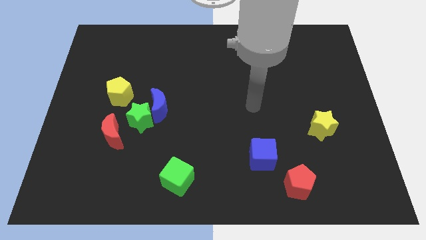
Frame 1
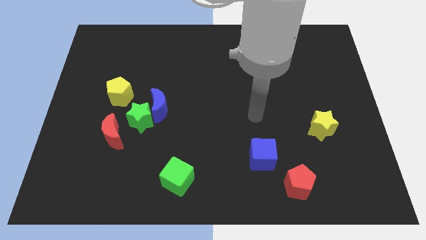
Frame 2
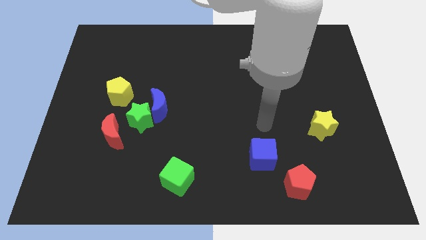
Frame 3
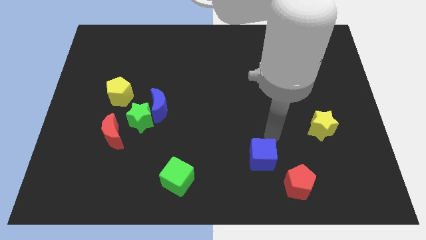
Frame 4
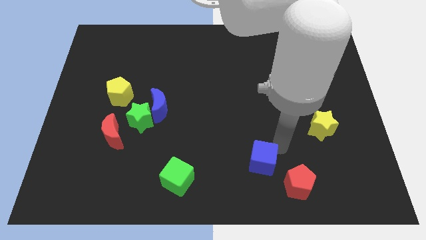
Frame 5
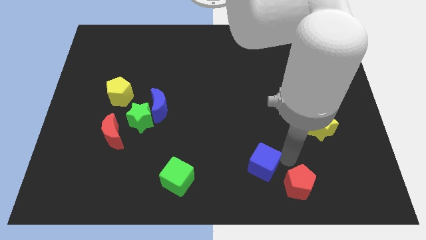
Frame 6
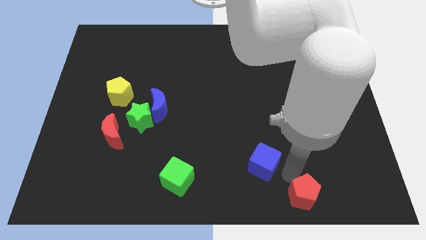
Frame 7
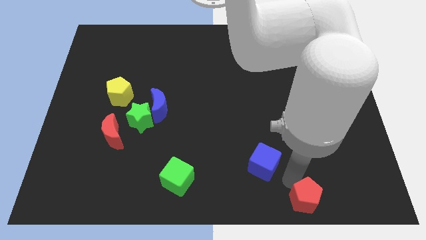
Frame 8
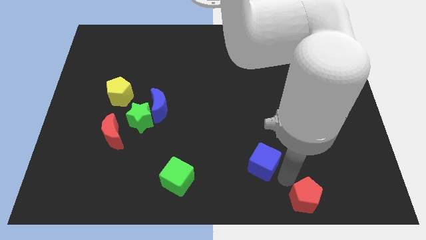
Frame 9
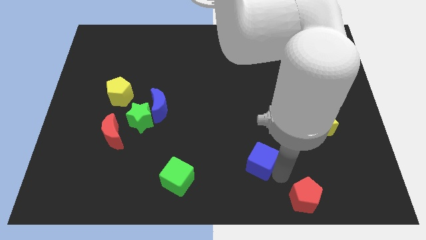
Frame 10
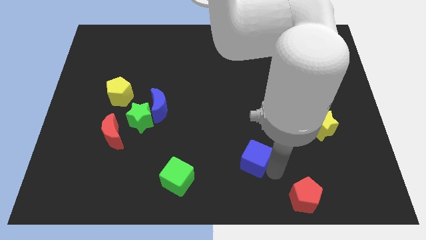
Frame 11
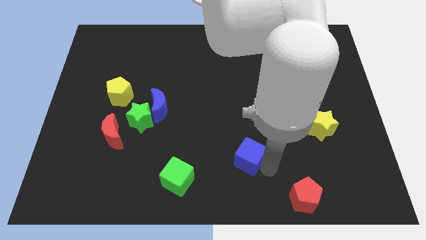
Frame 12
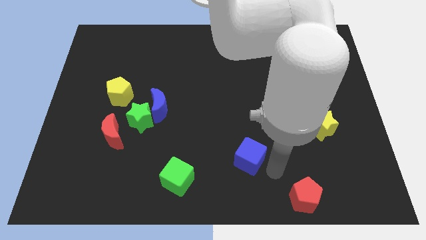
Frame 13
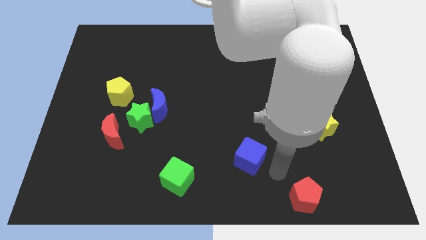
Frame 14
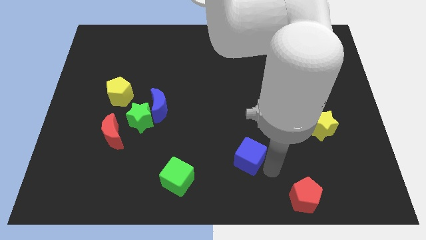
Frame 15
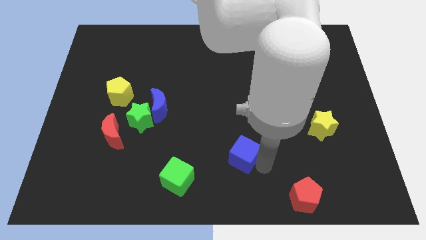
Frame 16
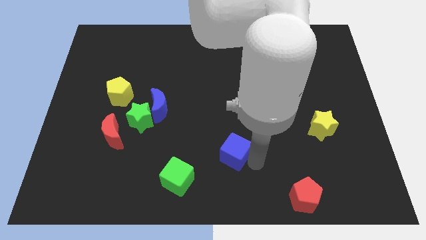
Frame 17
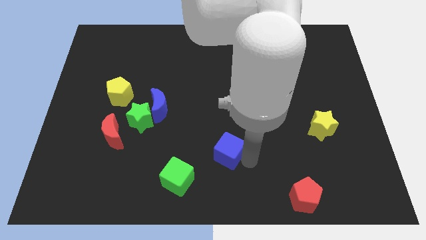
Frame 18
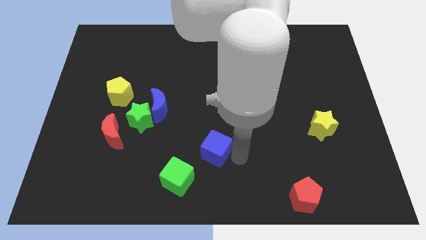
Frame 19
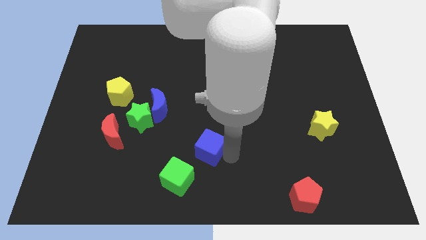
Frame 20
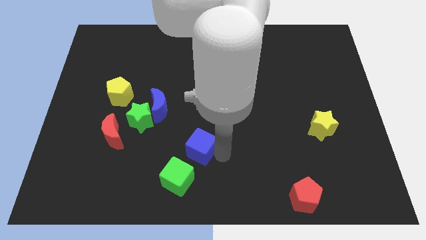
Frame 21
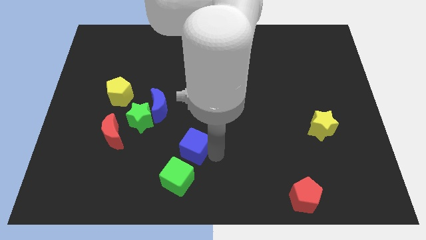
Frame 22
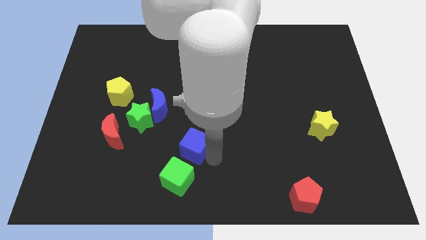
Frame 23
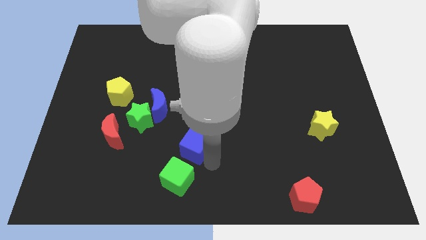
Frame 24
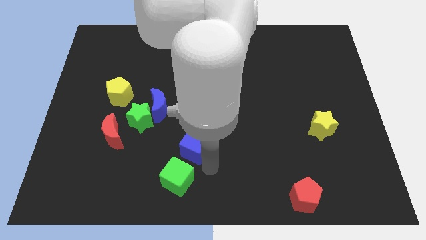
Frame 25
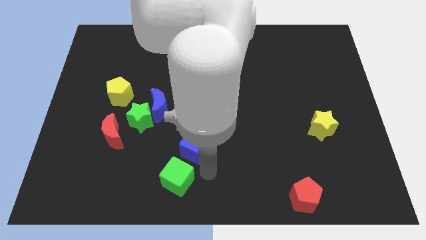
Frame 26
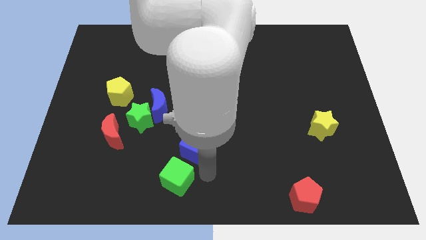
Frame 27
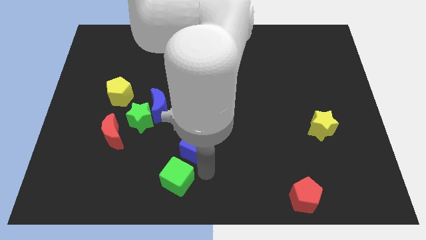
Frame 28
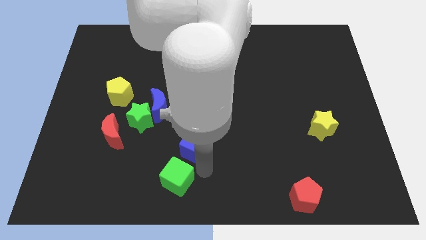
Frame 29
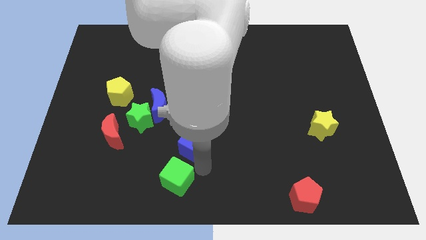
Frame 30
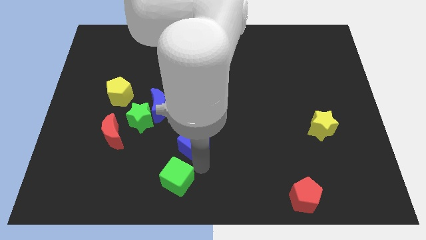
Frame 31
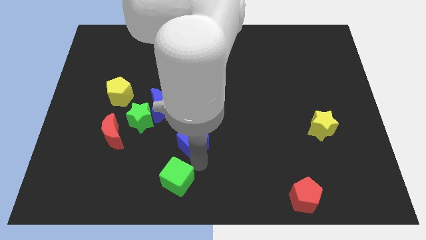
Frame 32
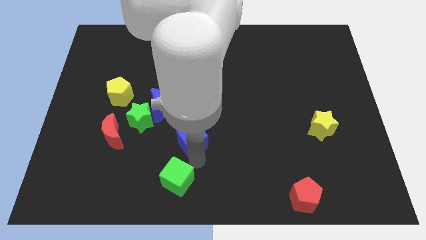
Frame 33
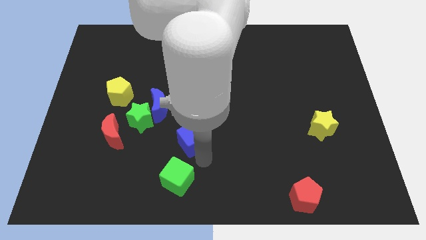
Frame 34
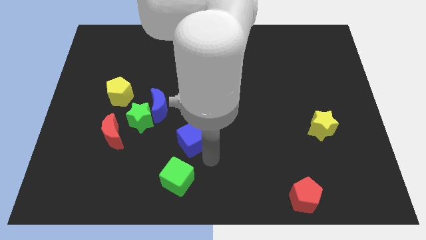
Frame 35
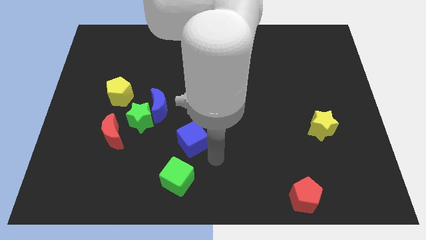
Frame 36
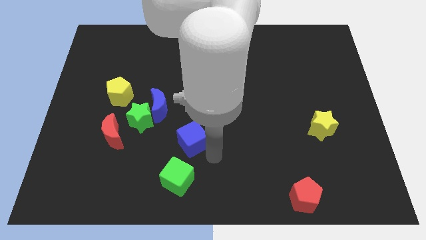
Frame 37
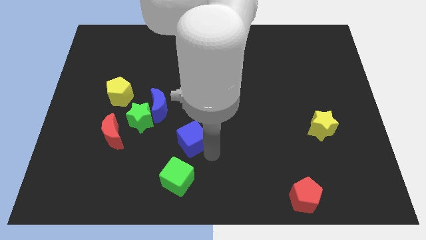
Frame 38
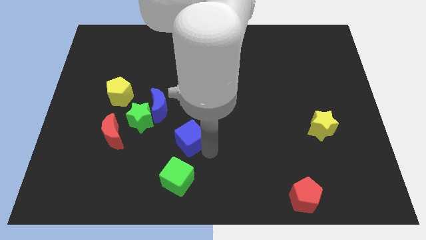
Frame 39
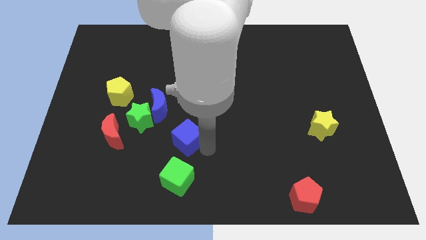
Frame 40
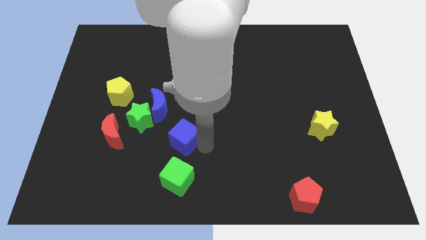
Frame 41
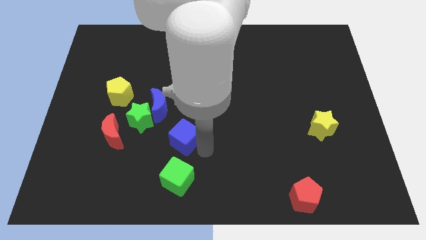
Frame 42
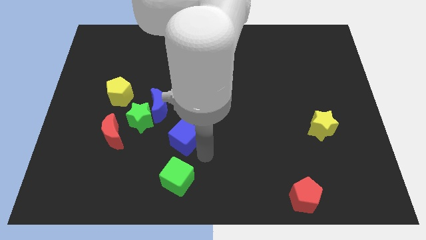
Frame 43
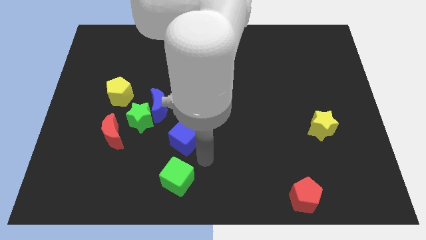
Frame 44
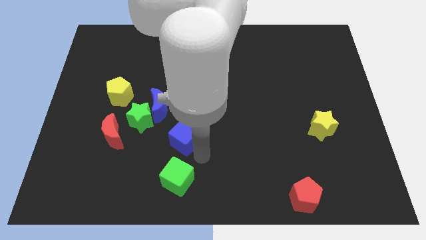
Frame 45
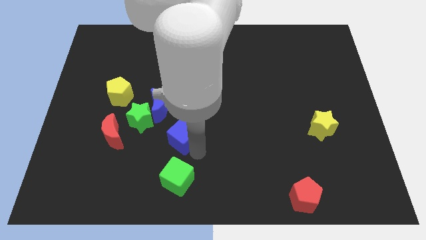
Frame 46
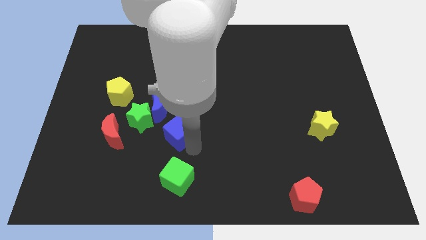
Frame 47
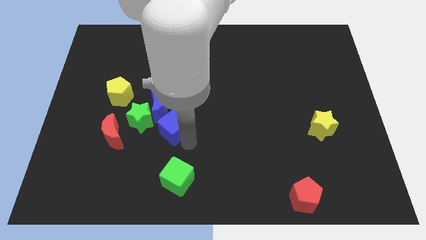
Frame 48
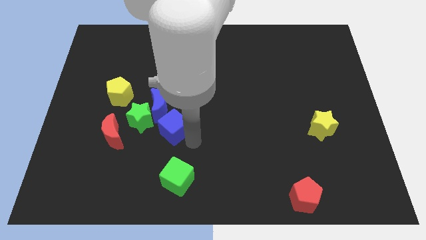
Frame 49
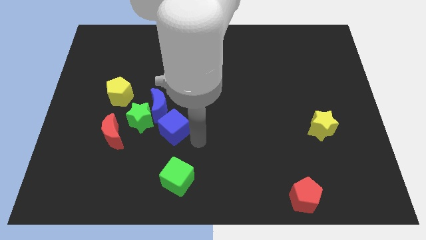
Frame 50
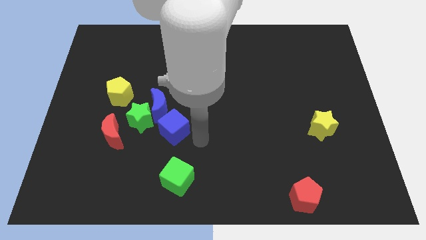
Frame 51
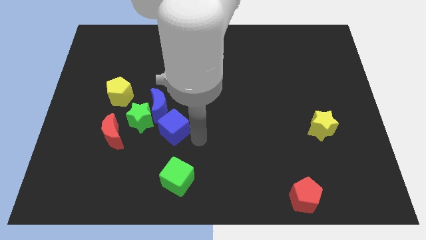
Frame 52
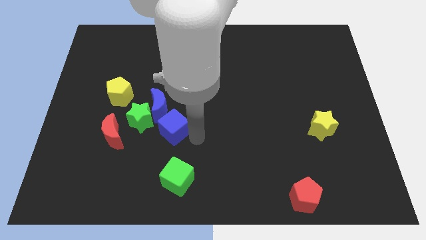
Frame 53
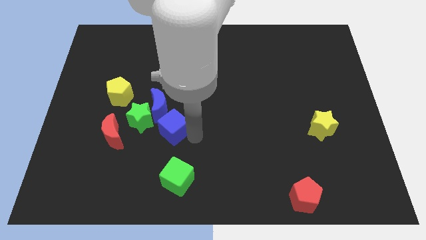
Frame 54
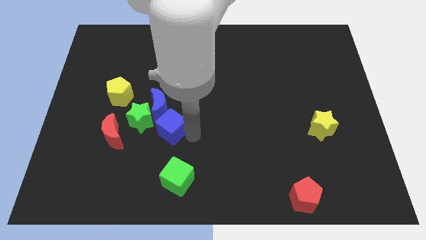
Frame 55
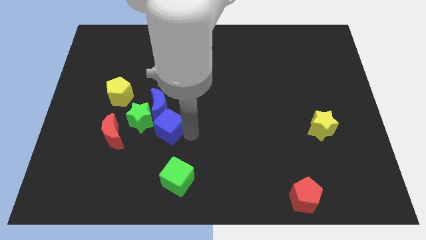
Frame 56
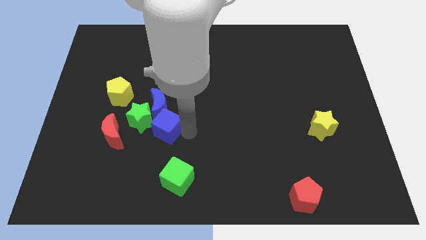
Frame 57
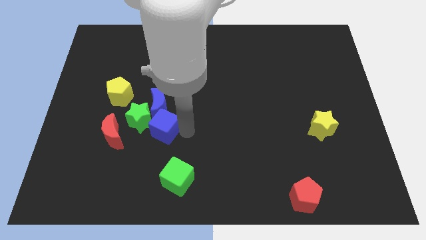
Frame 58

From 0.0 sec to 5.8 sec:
push the blue cube towards the green star
